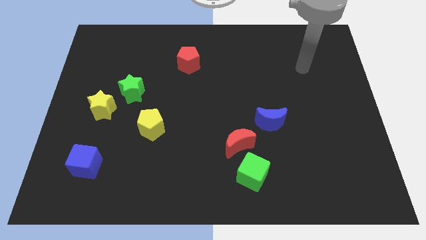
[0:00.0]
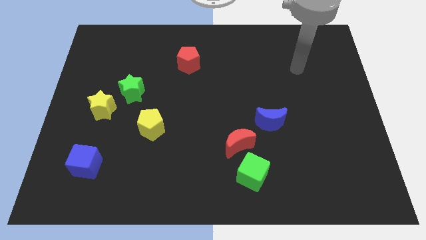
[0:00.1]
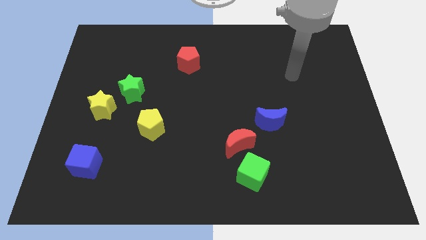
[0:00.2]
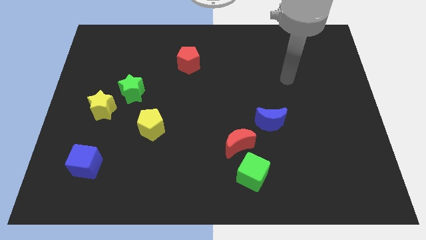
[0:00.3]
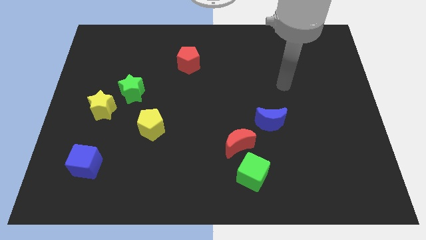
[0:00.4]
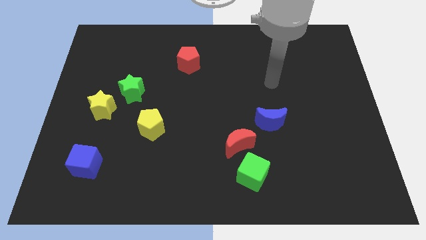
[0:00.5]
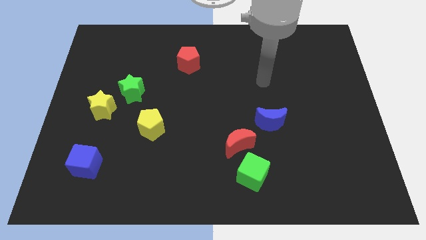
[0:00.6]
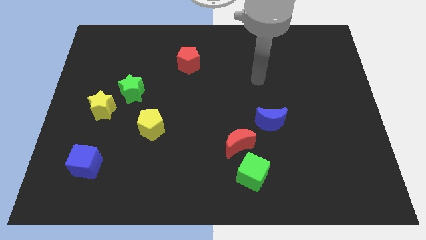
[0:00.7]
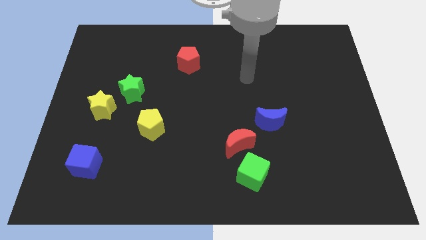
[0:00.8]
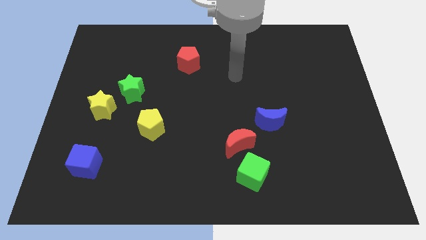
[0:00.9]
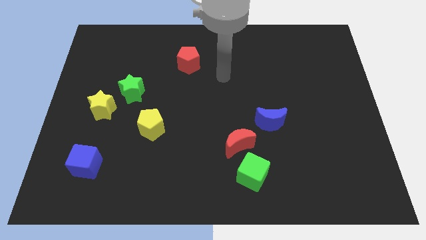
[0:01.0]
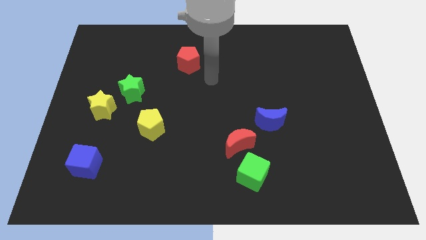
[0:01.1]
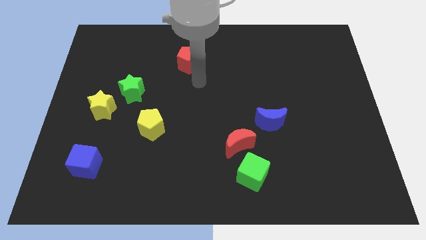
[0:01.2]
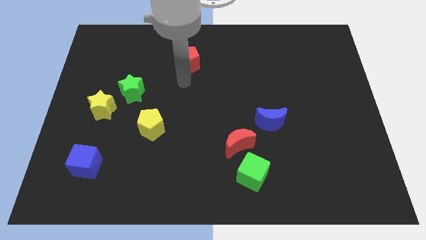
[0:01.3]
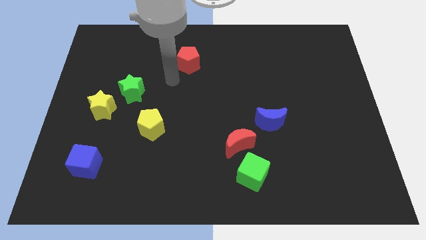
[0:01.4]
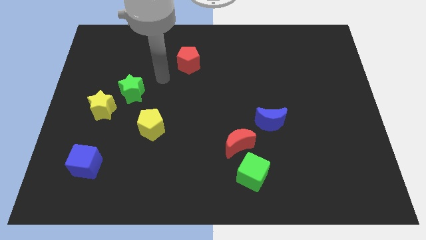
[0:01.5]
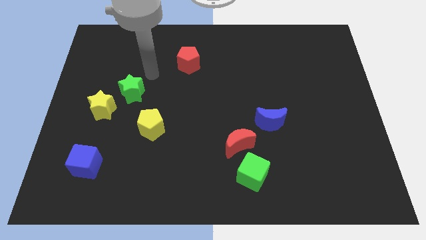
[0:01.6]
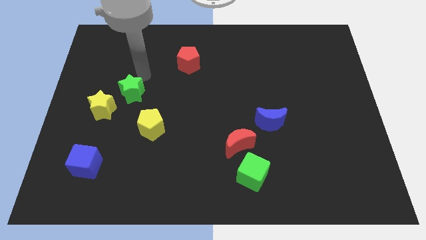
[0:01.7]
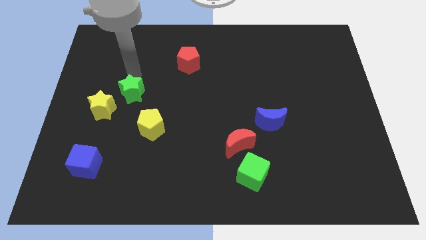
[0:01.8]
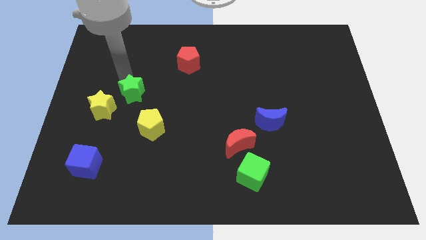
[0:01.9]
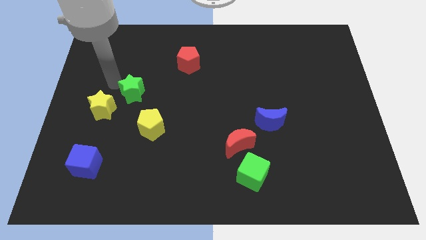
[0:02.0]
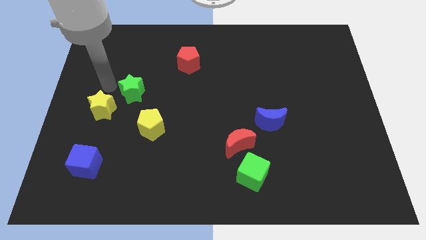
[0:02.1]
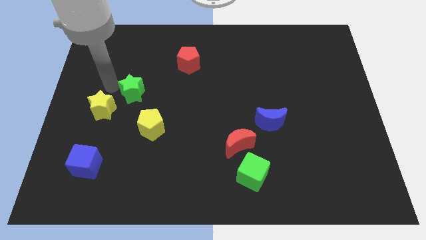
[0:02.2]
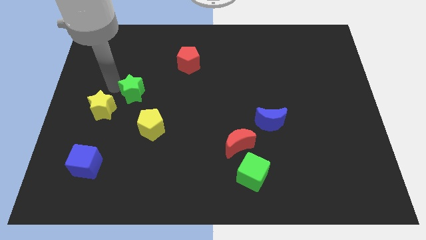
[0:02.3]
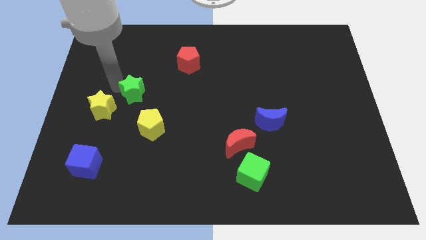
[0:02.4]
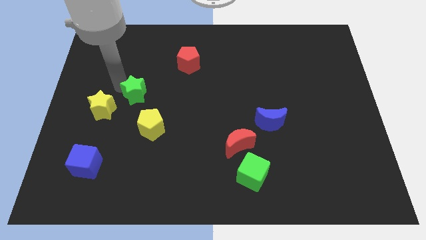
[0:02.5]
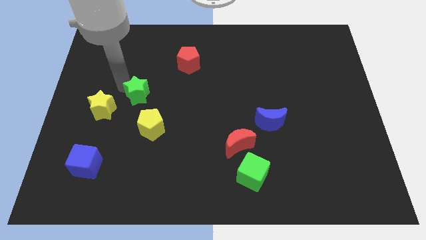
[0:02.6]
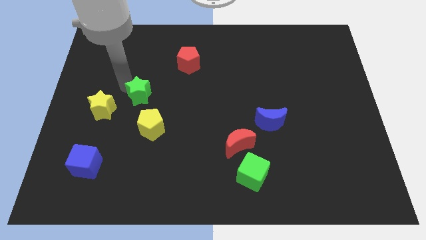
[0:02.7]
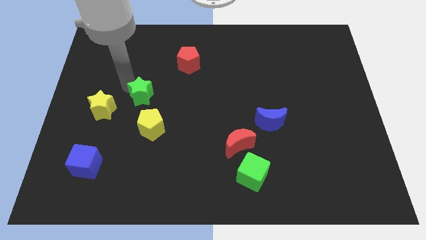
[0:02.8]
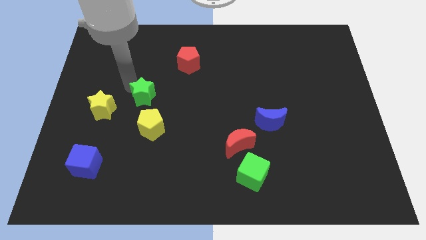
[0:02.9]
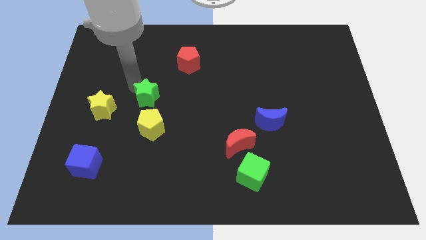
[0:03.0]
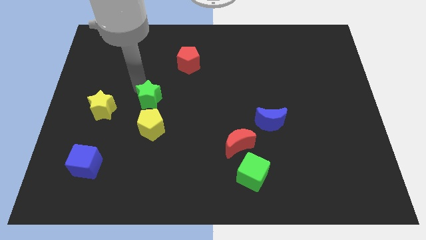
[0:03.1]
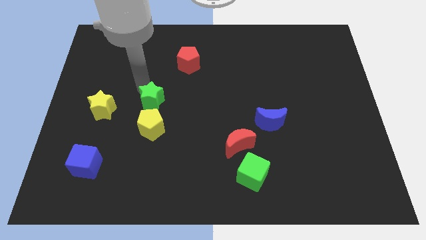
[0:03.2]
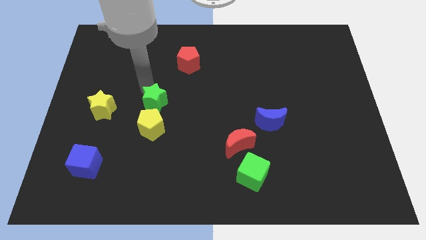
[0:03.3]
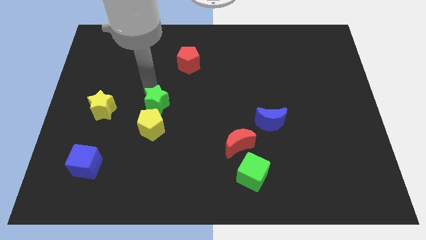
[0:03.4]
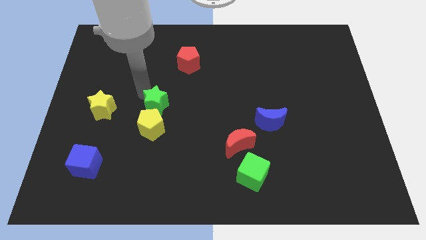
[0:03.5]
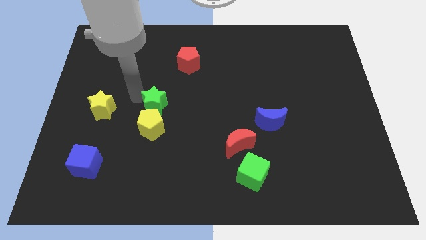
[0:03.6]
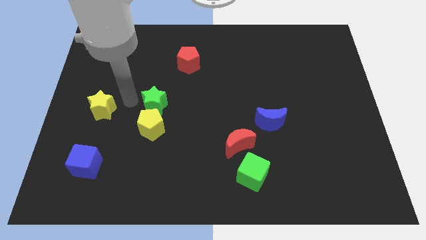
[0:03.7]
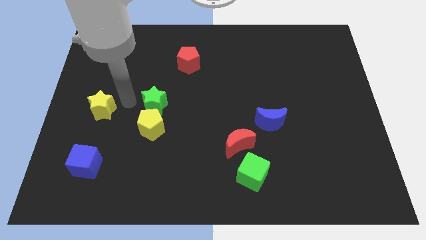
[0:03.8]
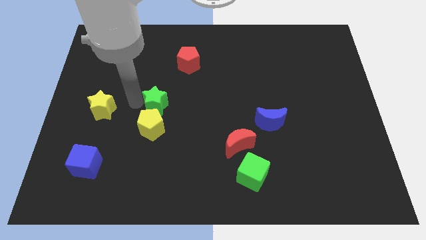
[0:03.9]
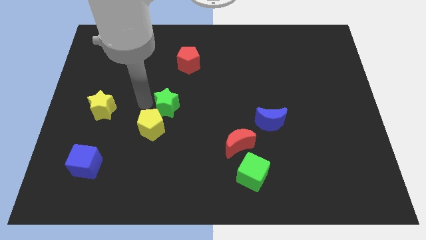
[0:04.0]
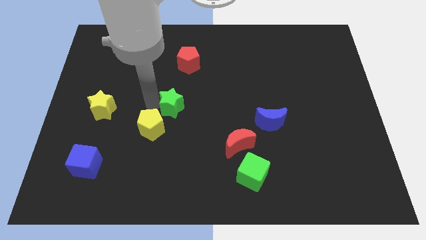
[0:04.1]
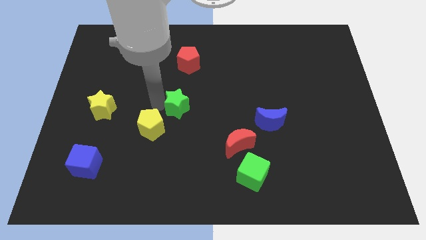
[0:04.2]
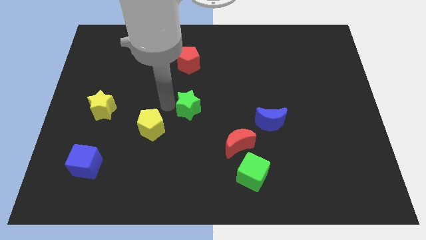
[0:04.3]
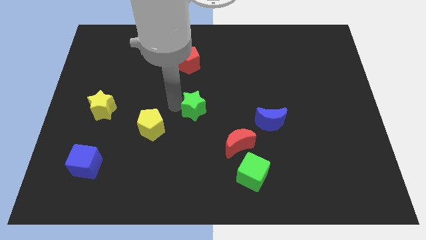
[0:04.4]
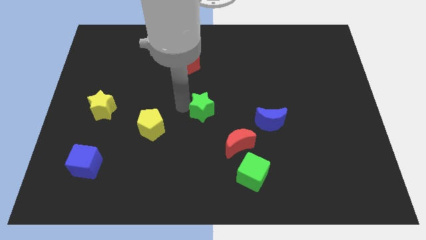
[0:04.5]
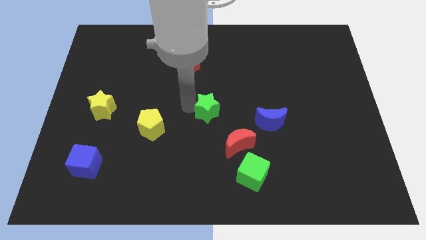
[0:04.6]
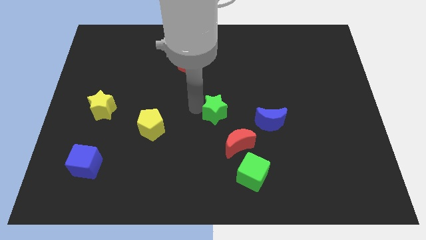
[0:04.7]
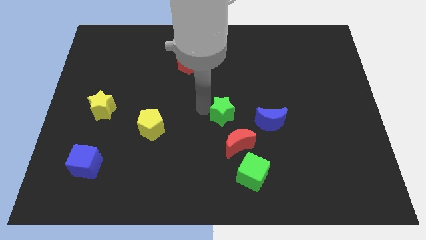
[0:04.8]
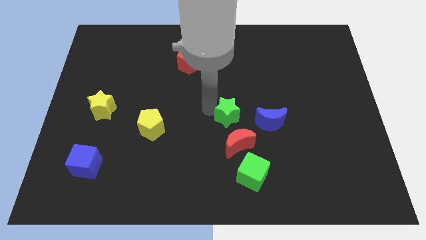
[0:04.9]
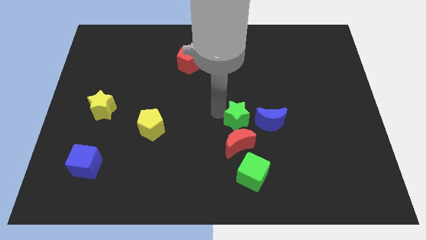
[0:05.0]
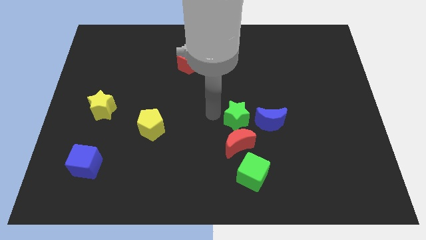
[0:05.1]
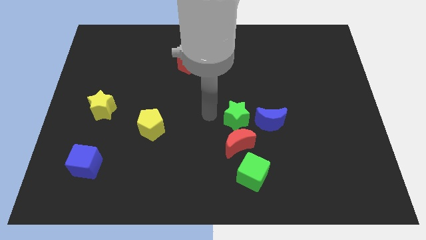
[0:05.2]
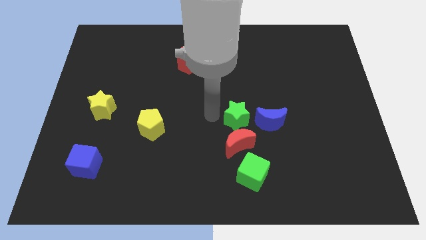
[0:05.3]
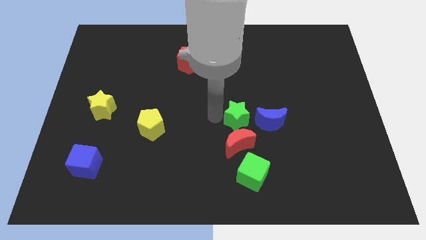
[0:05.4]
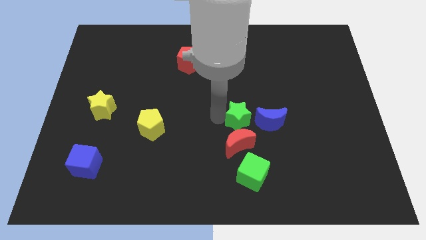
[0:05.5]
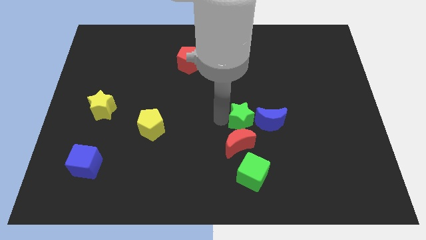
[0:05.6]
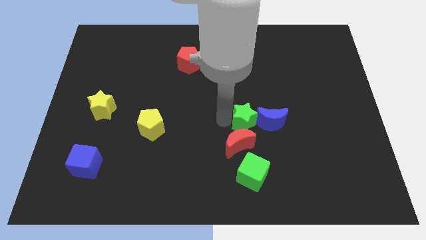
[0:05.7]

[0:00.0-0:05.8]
push the green star to the blue moon

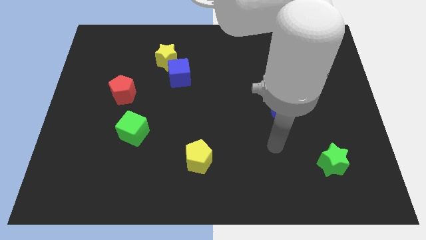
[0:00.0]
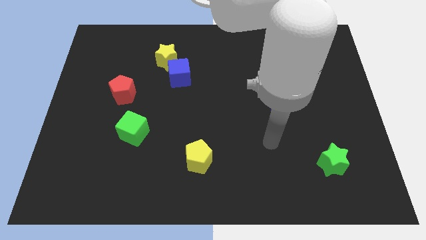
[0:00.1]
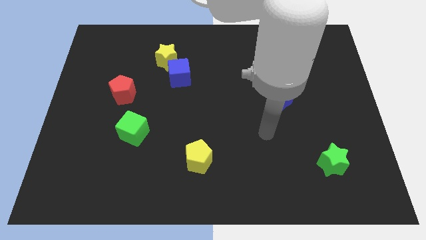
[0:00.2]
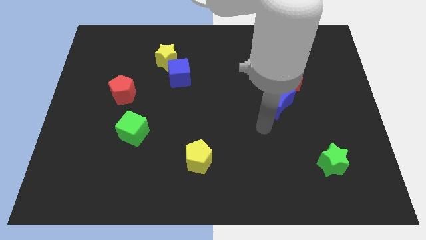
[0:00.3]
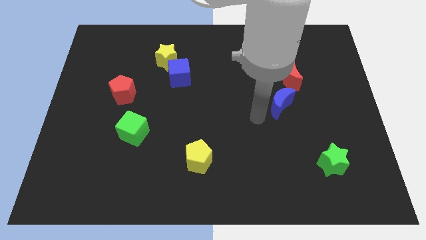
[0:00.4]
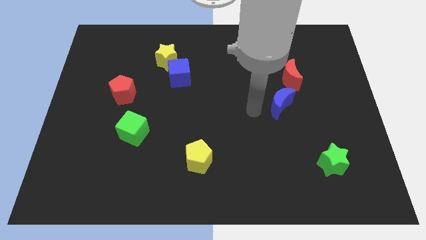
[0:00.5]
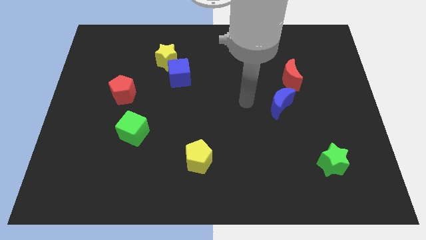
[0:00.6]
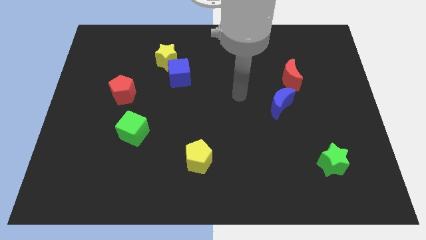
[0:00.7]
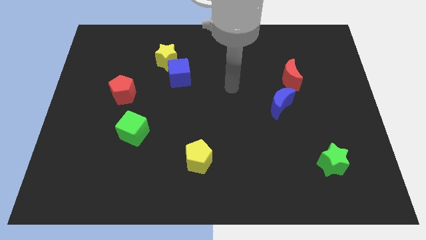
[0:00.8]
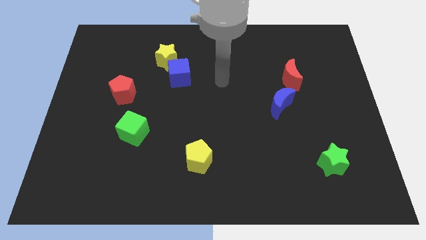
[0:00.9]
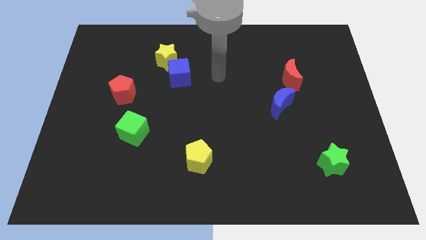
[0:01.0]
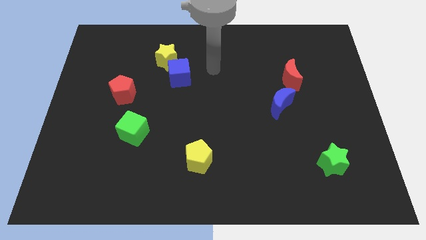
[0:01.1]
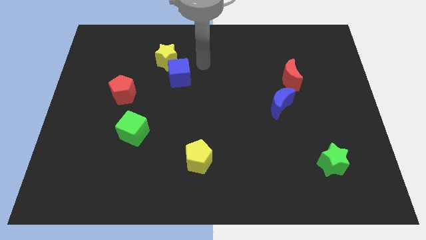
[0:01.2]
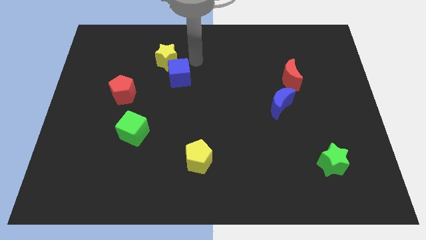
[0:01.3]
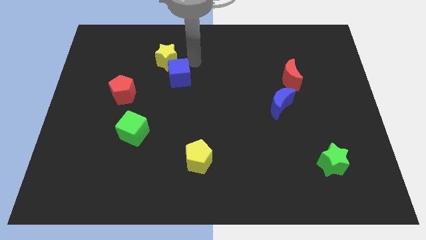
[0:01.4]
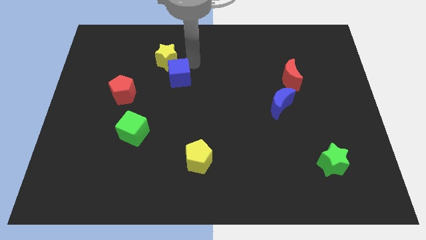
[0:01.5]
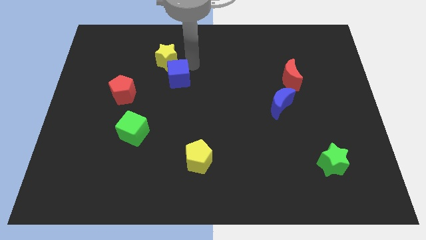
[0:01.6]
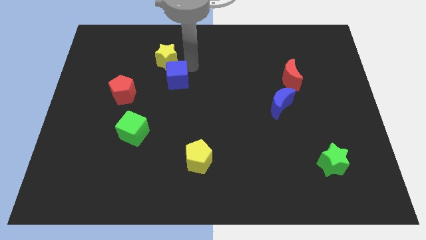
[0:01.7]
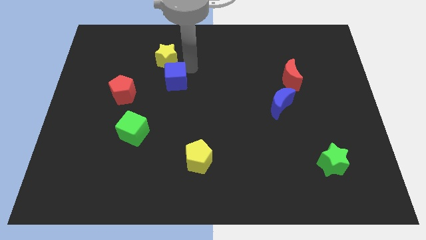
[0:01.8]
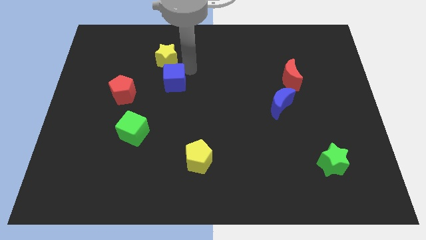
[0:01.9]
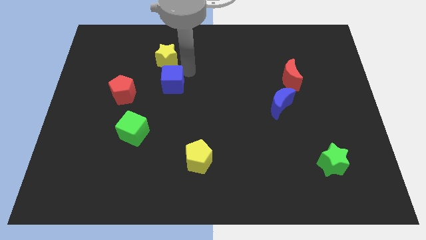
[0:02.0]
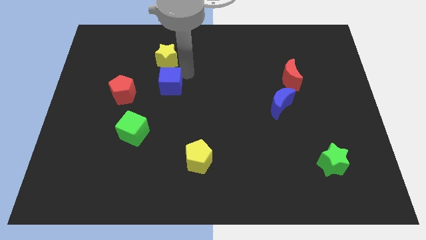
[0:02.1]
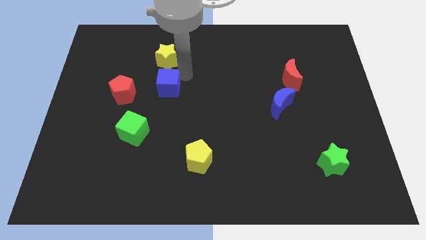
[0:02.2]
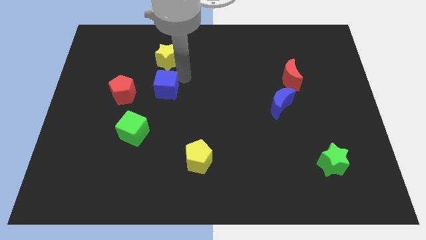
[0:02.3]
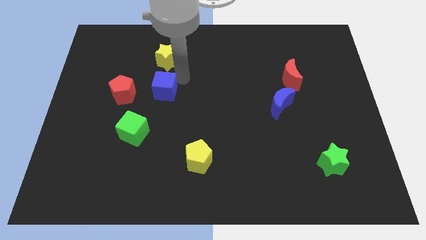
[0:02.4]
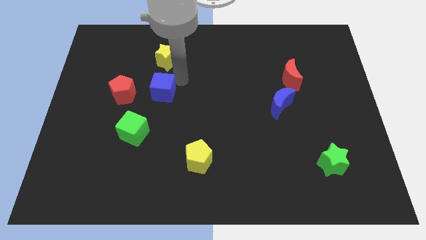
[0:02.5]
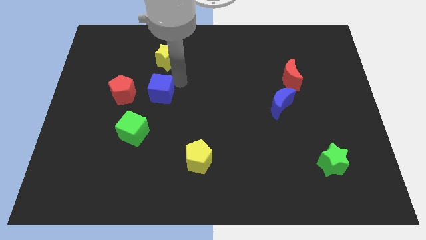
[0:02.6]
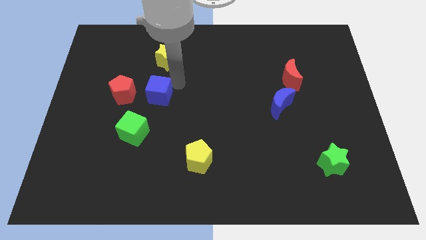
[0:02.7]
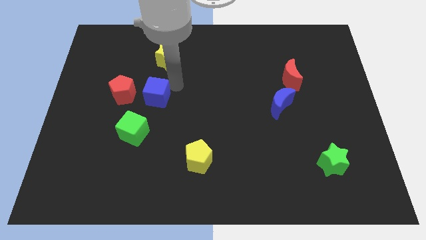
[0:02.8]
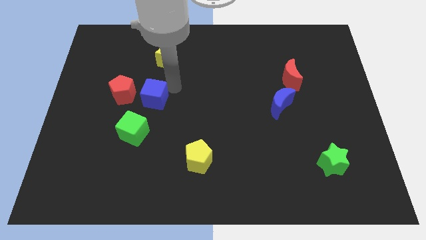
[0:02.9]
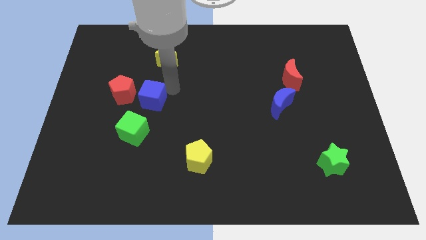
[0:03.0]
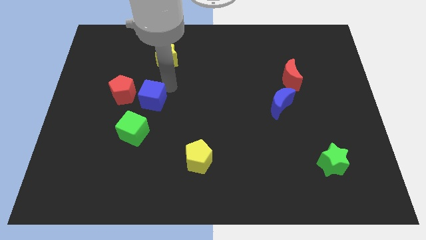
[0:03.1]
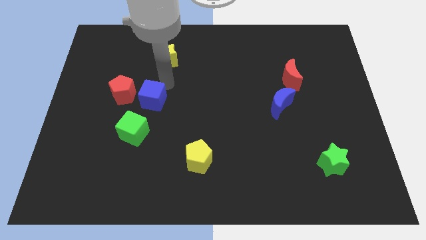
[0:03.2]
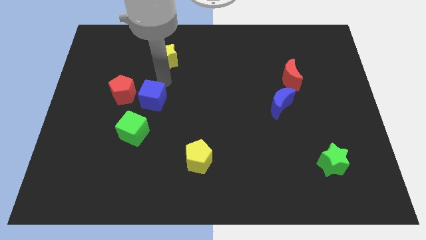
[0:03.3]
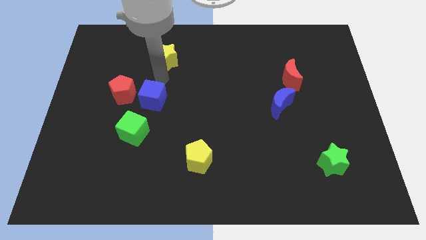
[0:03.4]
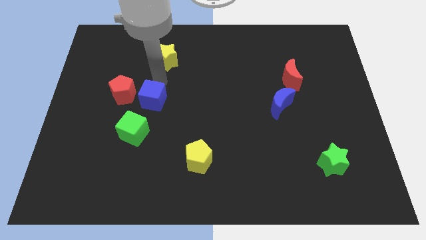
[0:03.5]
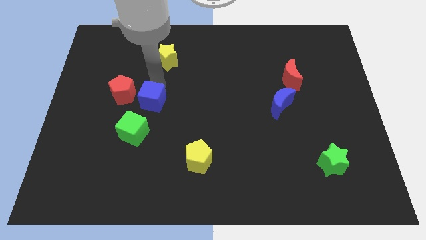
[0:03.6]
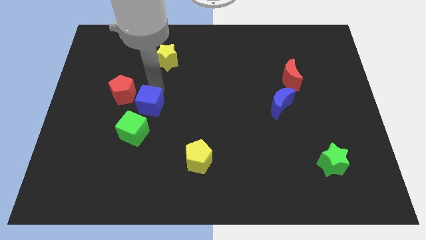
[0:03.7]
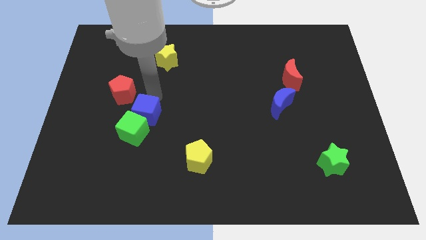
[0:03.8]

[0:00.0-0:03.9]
slide the blue cube close to the green cube
